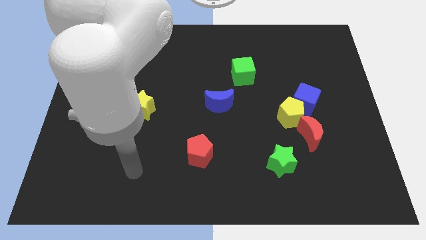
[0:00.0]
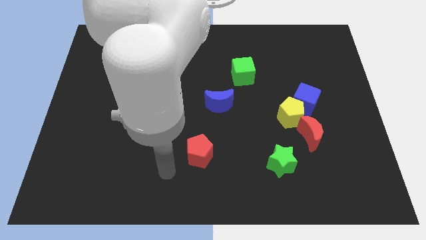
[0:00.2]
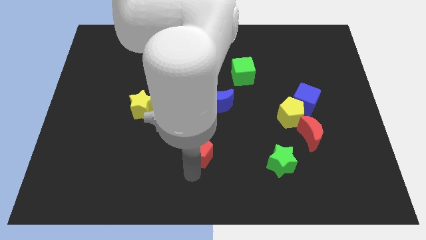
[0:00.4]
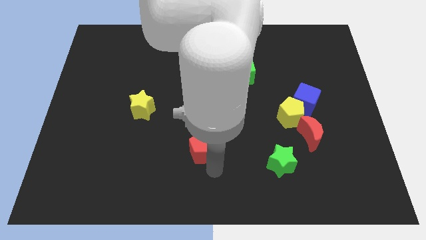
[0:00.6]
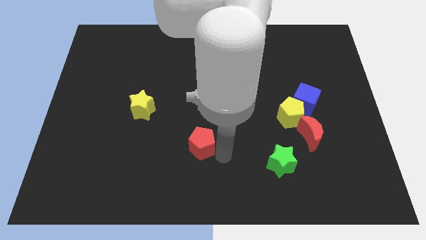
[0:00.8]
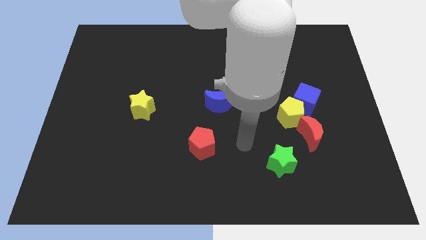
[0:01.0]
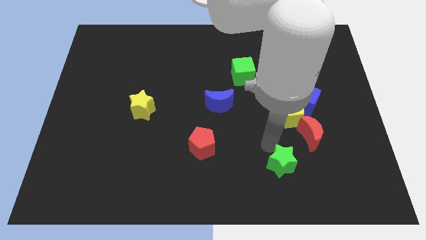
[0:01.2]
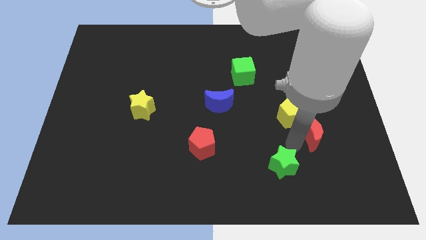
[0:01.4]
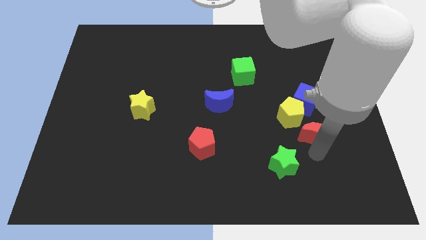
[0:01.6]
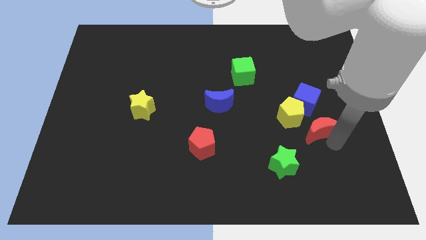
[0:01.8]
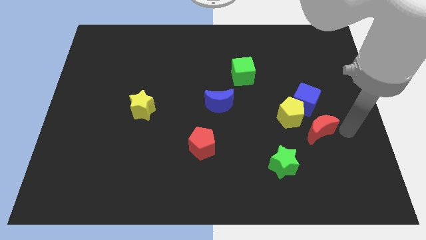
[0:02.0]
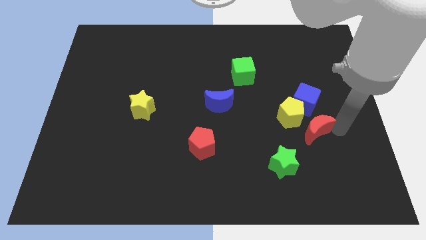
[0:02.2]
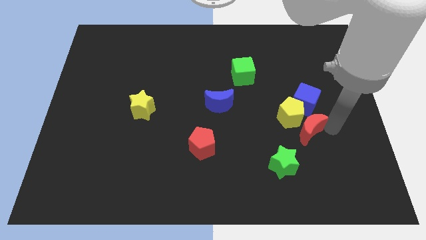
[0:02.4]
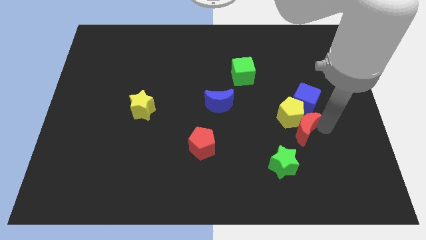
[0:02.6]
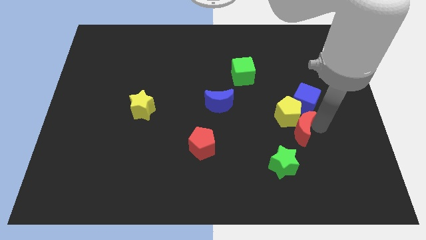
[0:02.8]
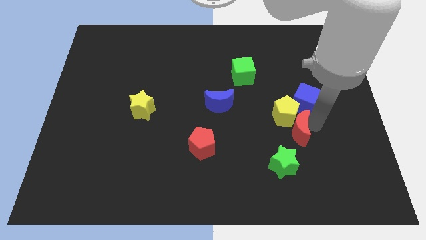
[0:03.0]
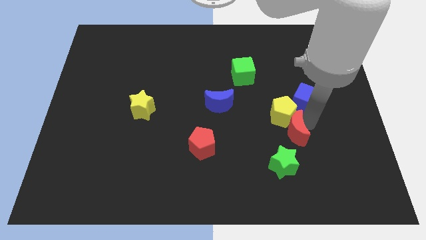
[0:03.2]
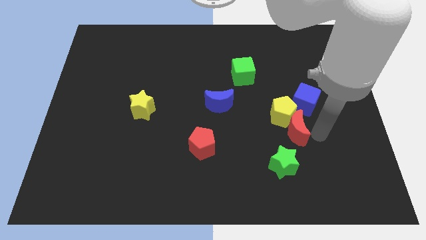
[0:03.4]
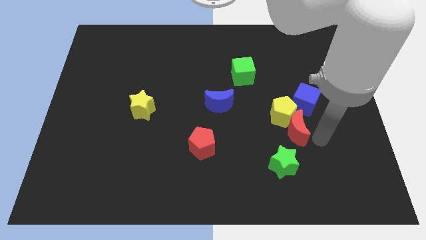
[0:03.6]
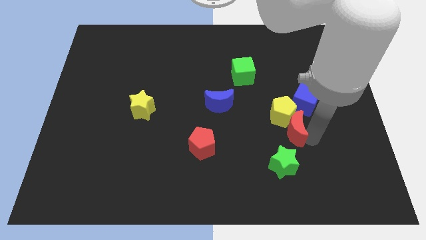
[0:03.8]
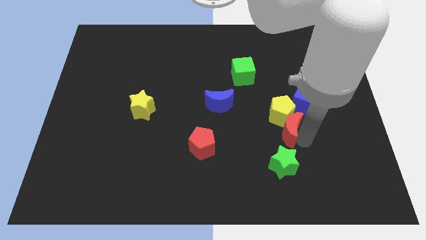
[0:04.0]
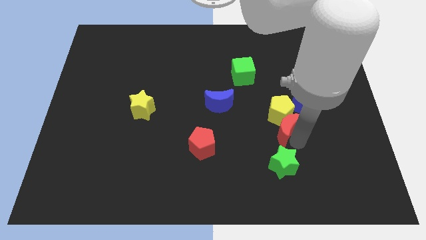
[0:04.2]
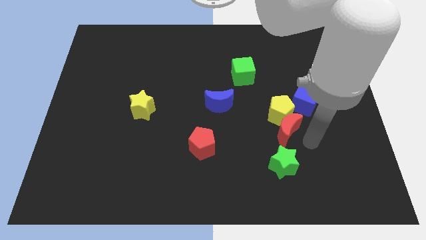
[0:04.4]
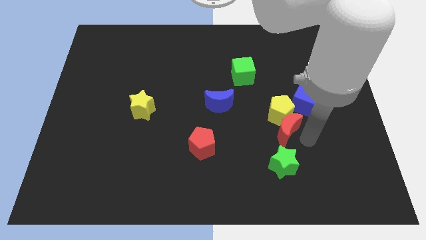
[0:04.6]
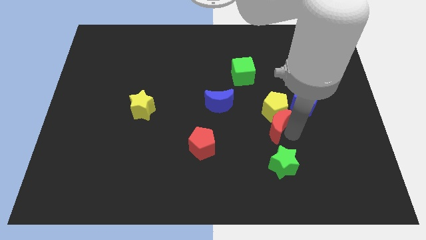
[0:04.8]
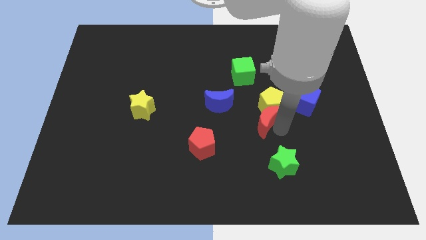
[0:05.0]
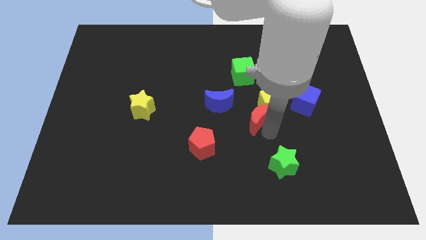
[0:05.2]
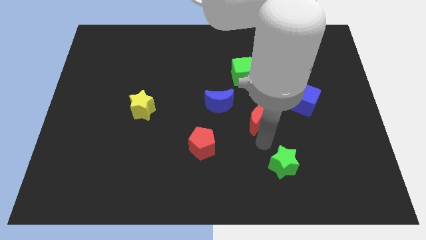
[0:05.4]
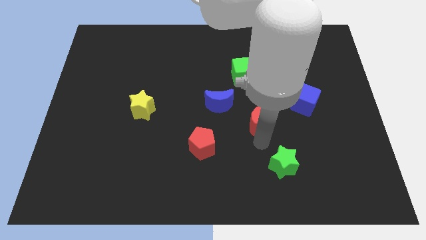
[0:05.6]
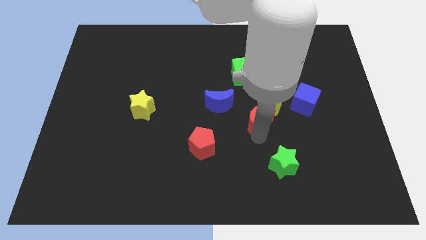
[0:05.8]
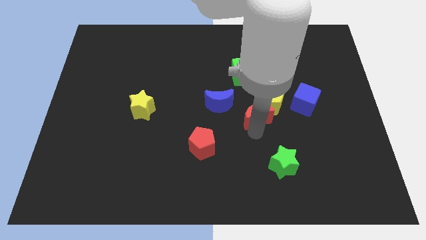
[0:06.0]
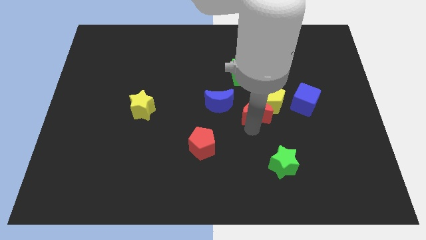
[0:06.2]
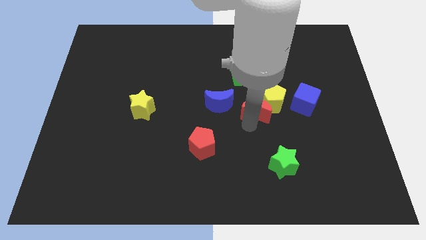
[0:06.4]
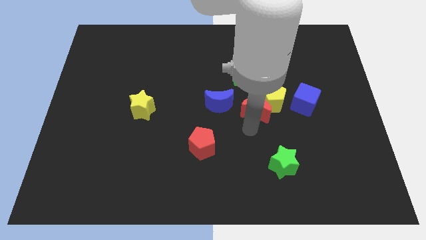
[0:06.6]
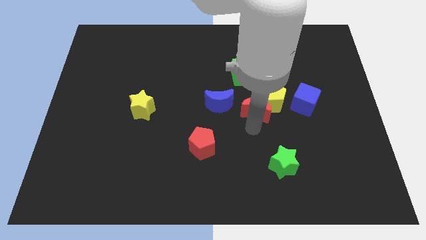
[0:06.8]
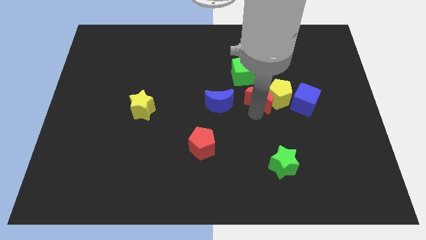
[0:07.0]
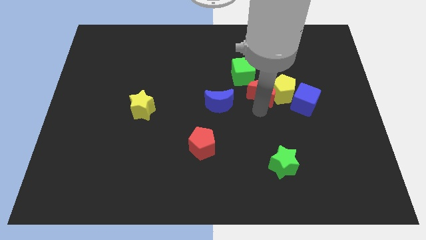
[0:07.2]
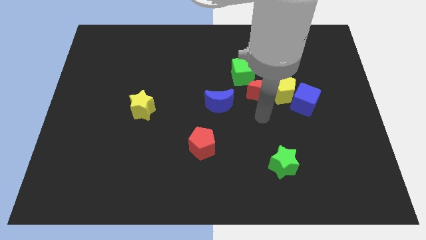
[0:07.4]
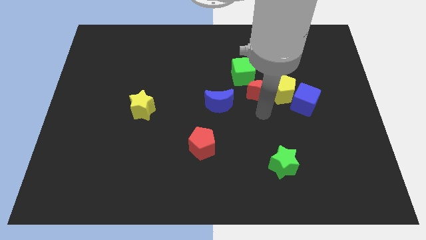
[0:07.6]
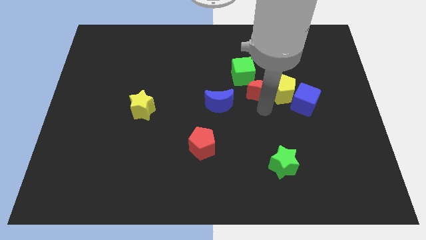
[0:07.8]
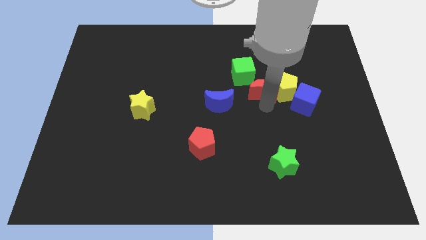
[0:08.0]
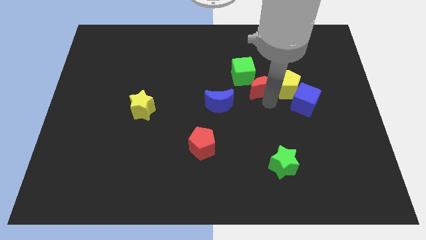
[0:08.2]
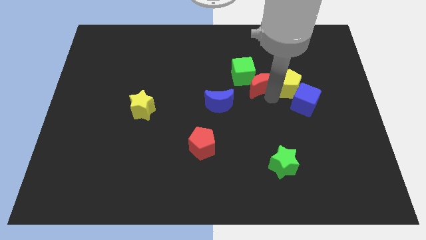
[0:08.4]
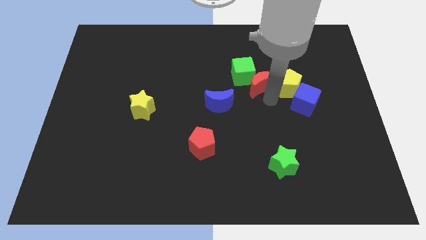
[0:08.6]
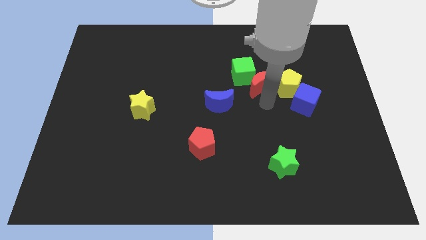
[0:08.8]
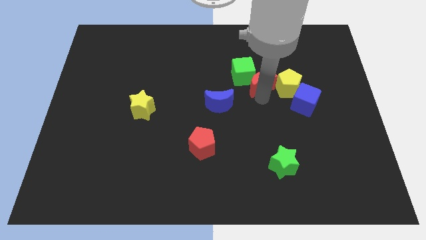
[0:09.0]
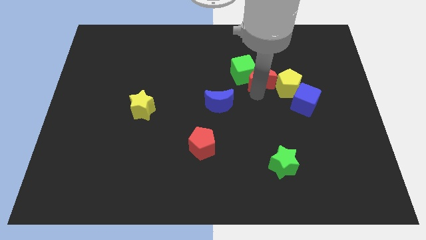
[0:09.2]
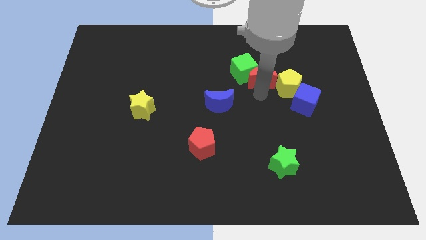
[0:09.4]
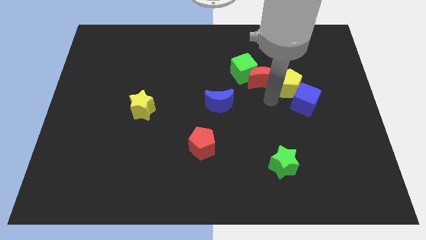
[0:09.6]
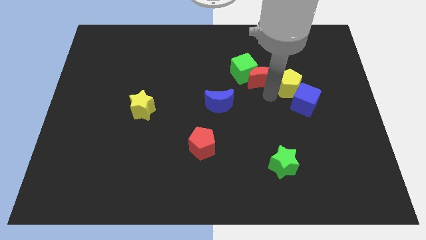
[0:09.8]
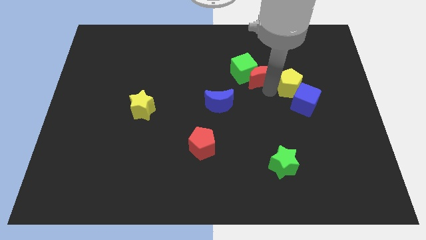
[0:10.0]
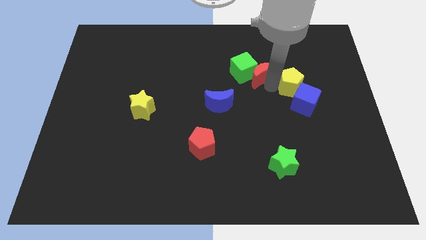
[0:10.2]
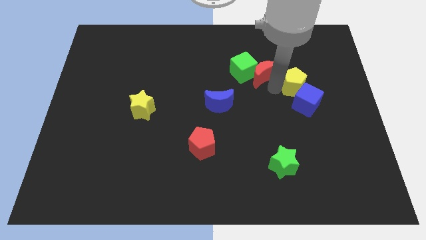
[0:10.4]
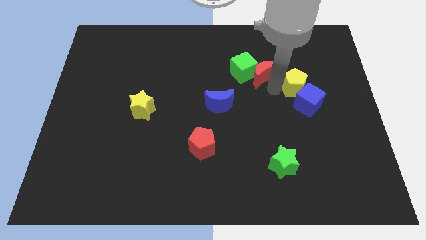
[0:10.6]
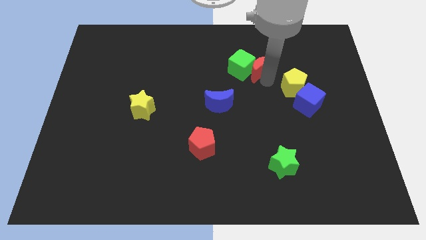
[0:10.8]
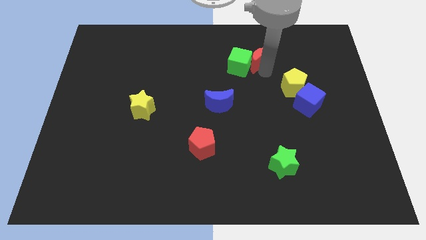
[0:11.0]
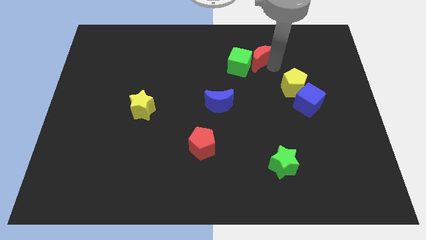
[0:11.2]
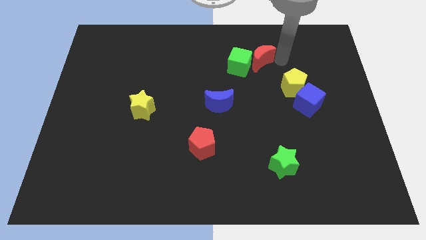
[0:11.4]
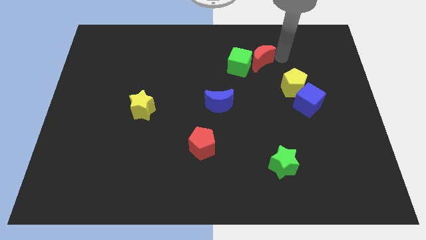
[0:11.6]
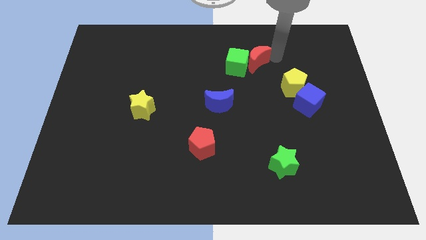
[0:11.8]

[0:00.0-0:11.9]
slide the red moon up and to the left diagonally

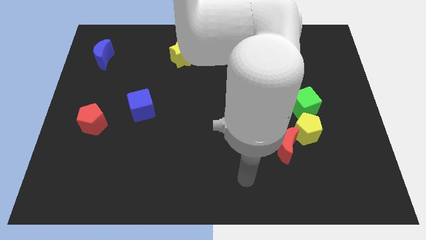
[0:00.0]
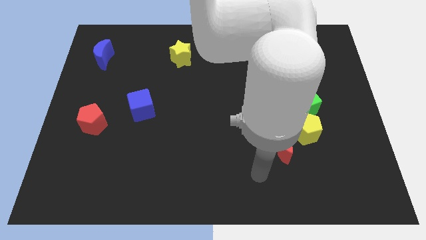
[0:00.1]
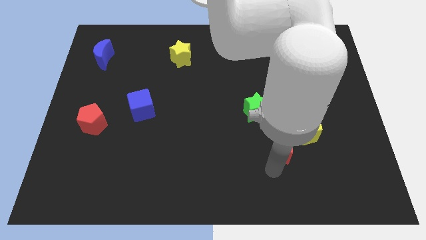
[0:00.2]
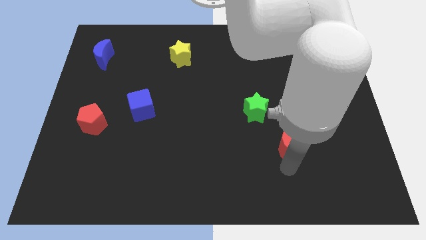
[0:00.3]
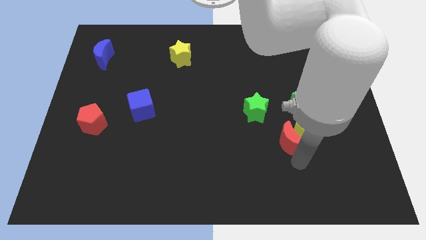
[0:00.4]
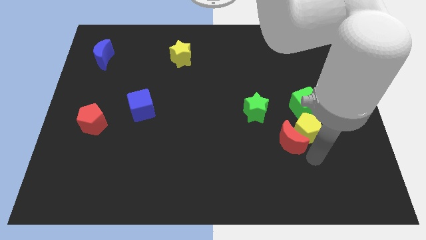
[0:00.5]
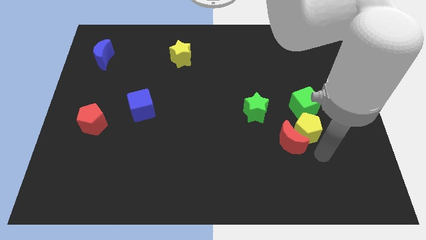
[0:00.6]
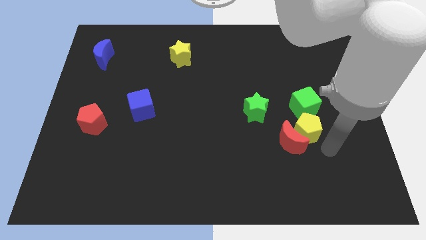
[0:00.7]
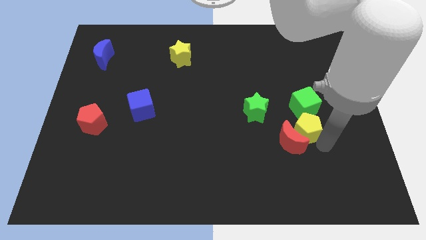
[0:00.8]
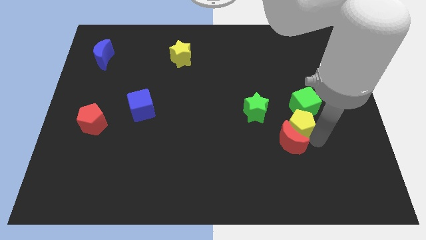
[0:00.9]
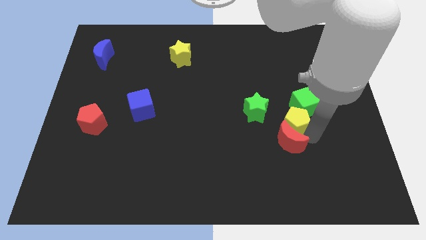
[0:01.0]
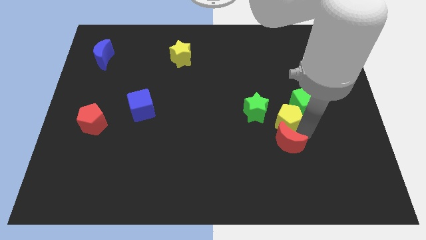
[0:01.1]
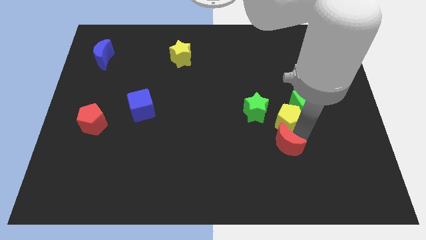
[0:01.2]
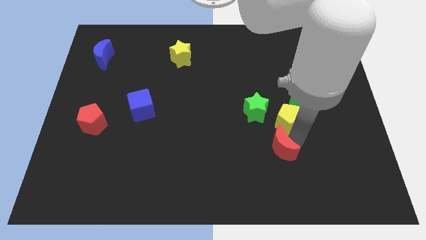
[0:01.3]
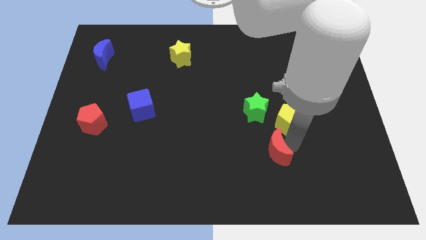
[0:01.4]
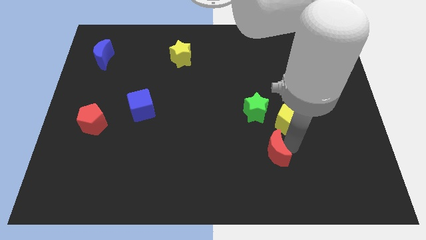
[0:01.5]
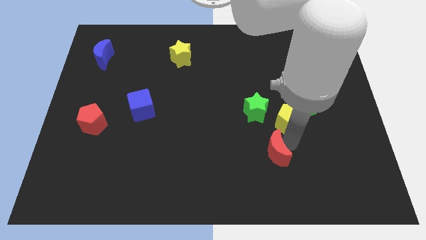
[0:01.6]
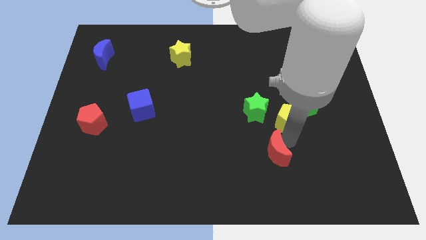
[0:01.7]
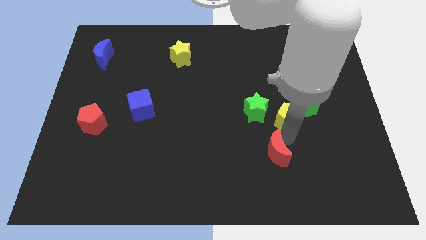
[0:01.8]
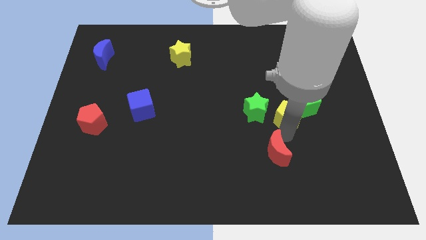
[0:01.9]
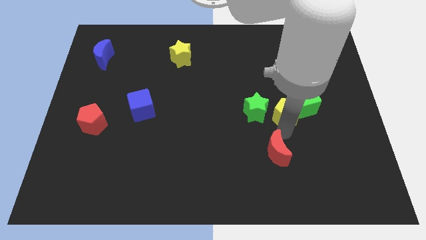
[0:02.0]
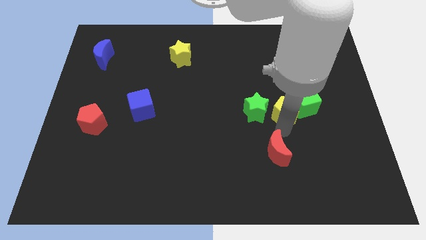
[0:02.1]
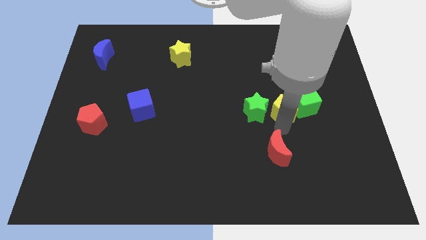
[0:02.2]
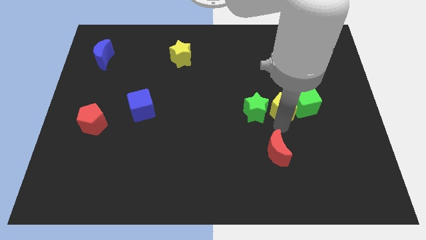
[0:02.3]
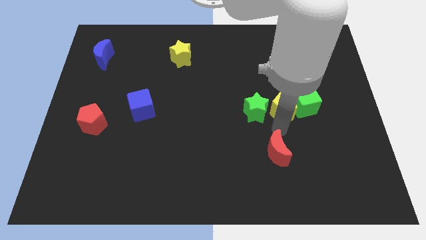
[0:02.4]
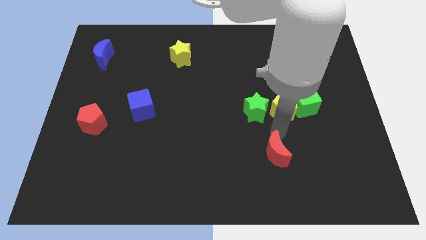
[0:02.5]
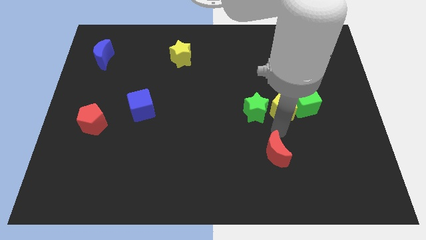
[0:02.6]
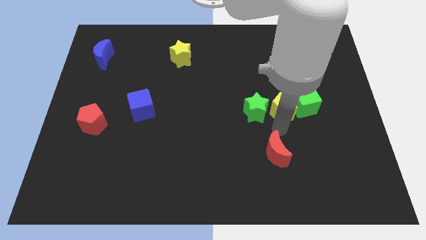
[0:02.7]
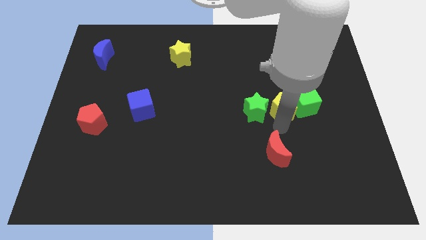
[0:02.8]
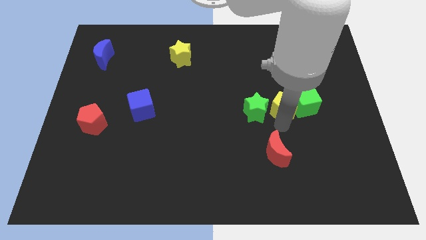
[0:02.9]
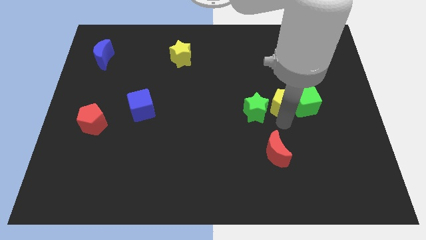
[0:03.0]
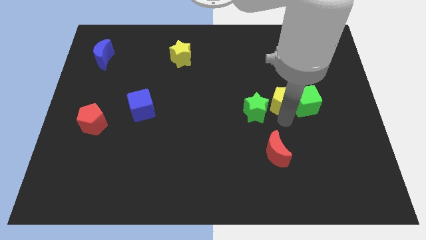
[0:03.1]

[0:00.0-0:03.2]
slightly push the yellow pentagon upwards
